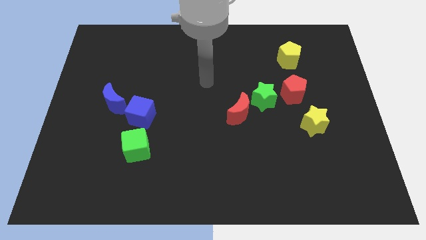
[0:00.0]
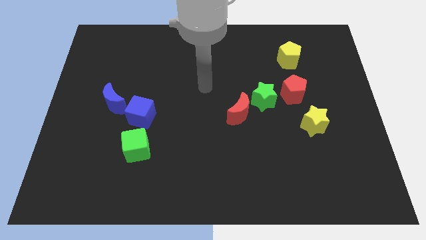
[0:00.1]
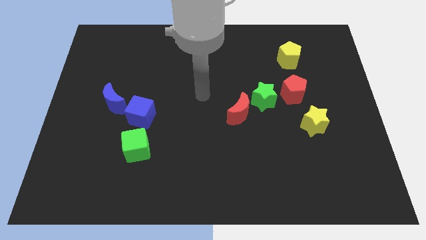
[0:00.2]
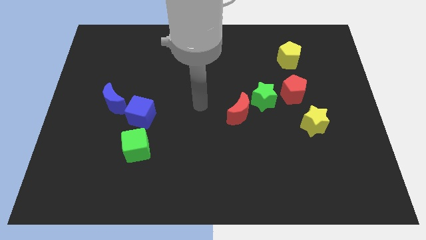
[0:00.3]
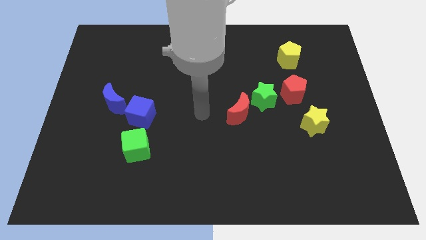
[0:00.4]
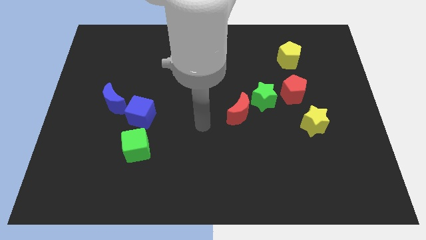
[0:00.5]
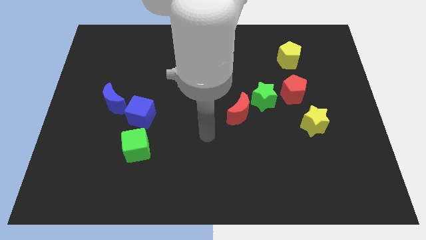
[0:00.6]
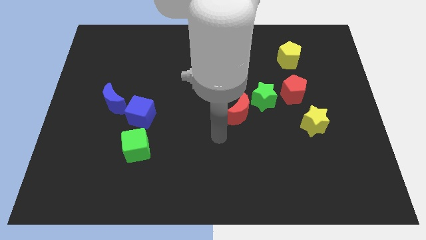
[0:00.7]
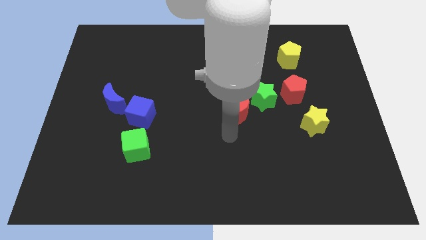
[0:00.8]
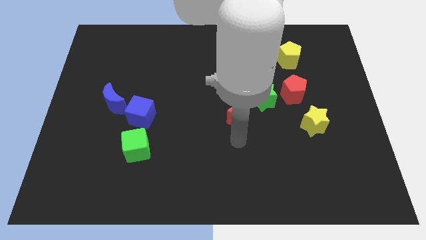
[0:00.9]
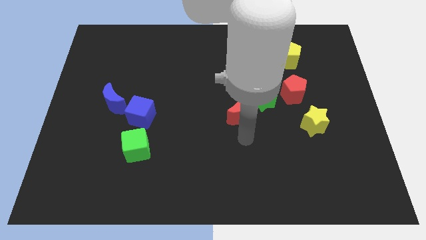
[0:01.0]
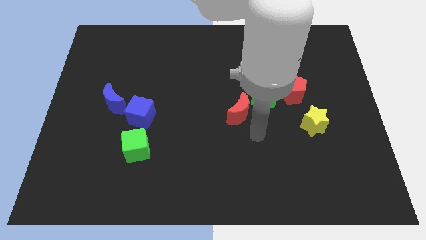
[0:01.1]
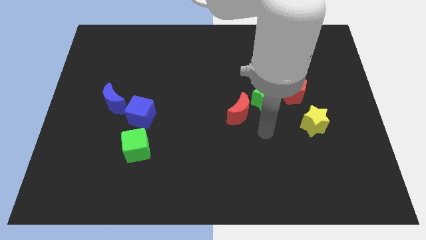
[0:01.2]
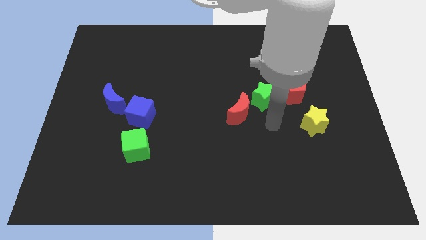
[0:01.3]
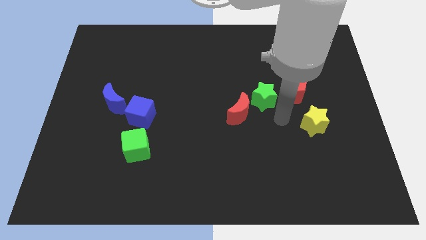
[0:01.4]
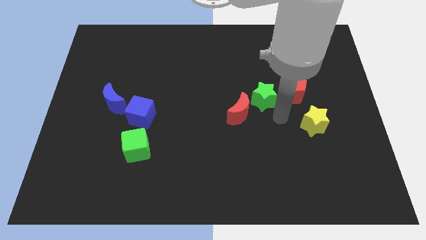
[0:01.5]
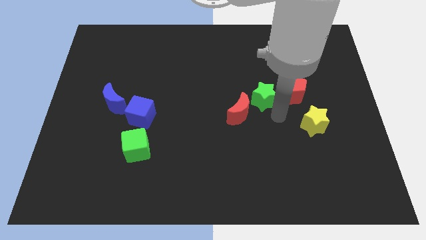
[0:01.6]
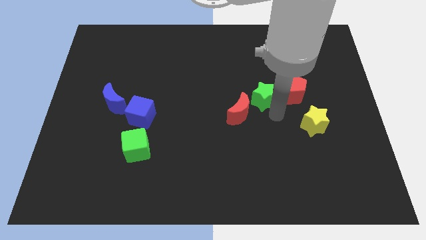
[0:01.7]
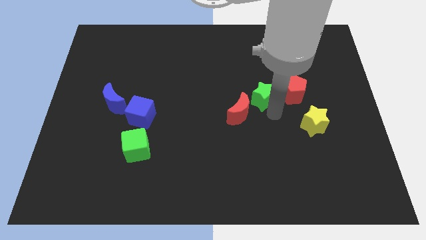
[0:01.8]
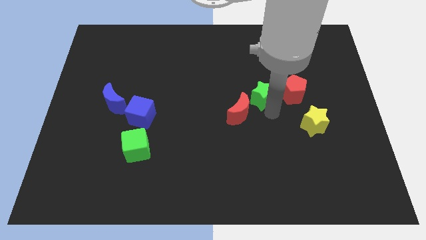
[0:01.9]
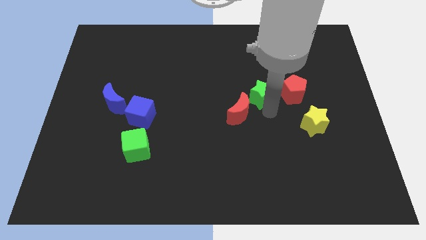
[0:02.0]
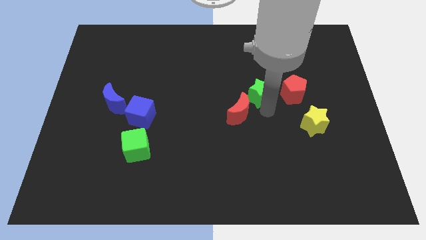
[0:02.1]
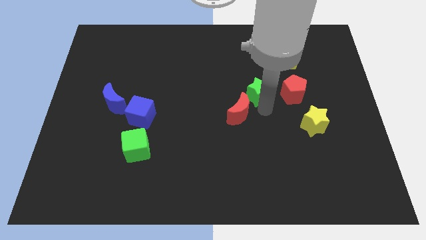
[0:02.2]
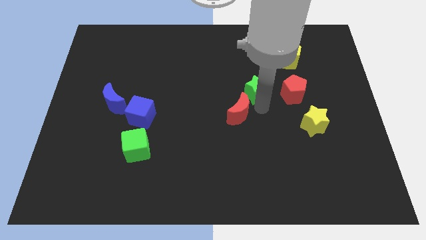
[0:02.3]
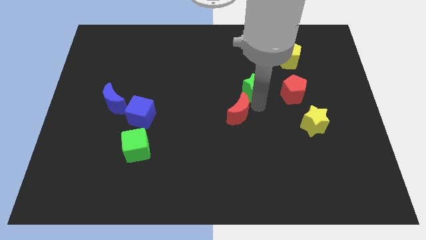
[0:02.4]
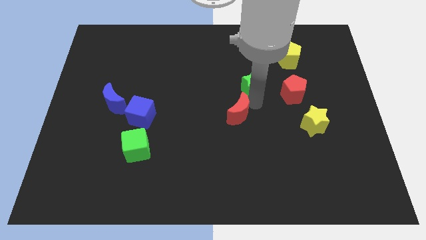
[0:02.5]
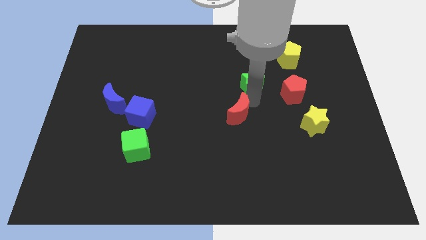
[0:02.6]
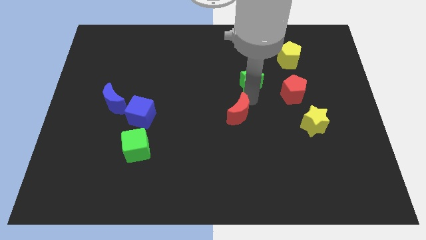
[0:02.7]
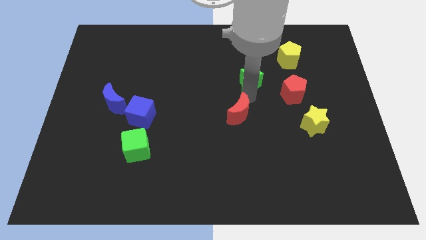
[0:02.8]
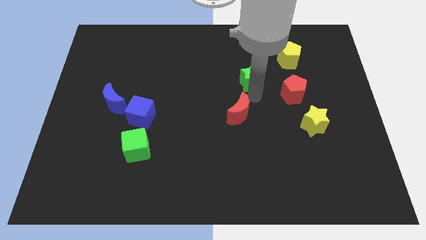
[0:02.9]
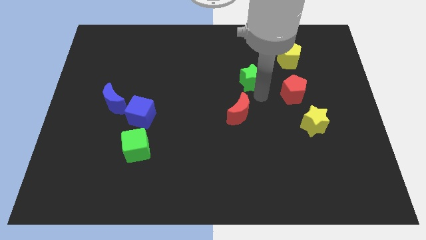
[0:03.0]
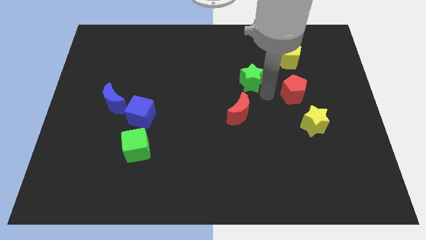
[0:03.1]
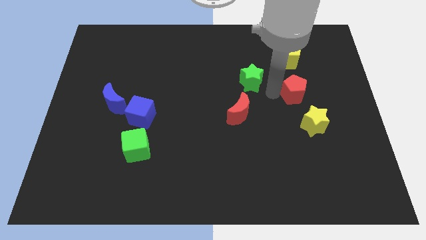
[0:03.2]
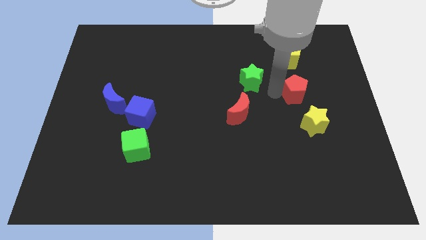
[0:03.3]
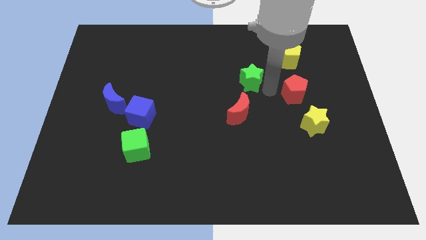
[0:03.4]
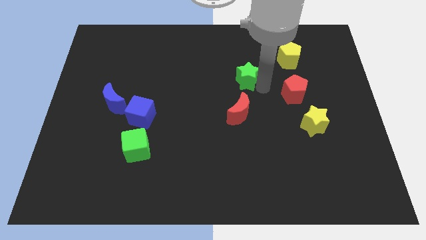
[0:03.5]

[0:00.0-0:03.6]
move the green star a little bit up and then to the left

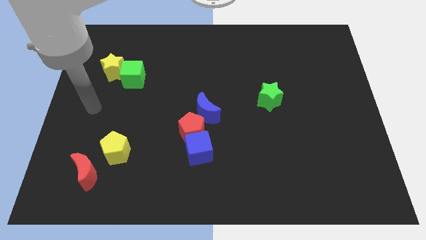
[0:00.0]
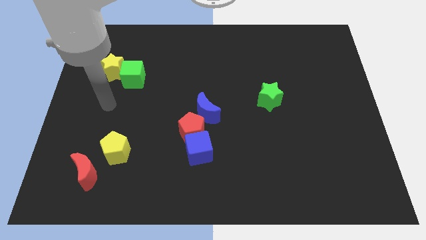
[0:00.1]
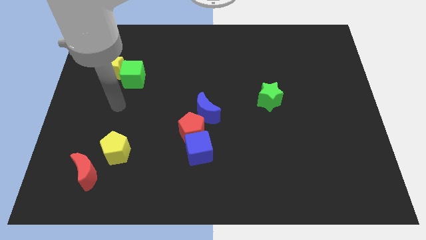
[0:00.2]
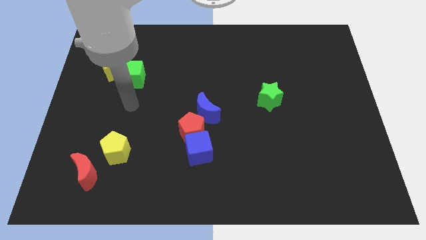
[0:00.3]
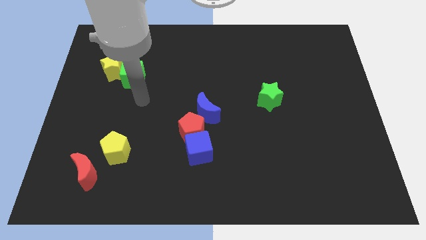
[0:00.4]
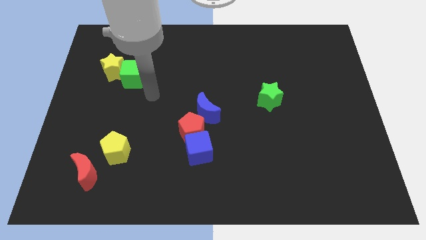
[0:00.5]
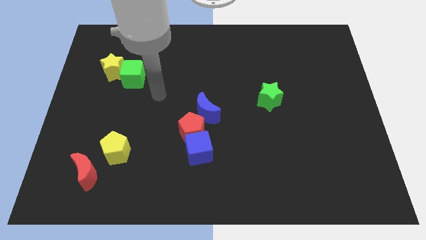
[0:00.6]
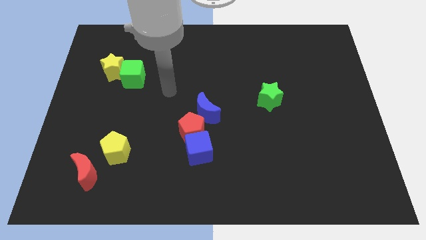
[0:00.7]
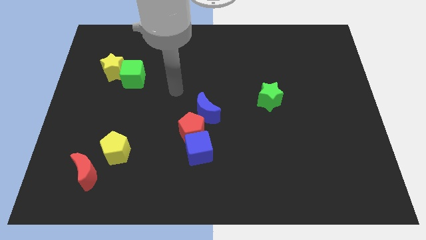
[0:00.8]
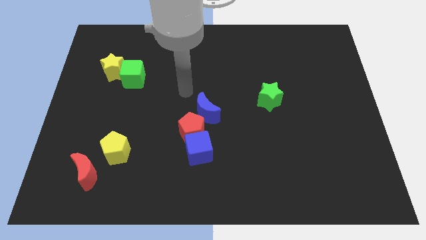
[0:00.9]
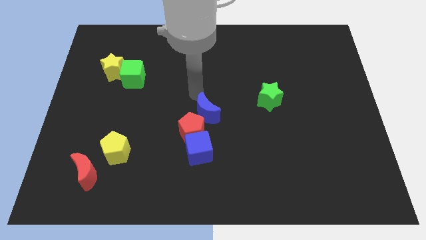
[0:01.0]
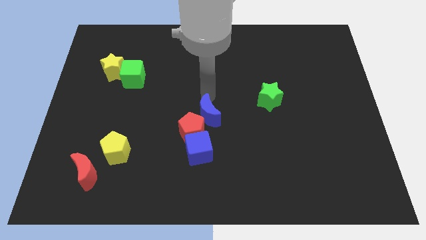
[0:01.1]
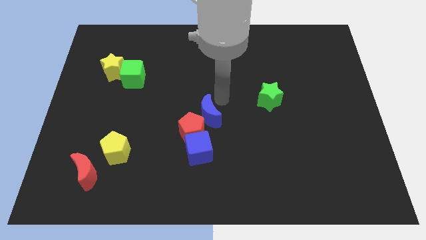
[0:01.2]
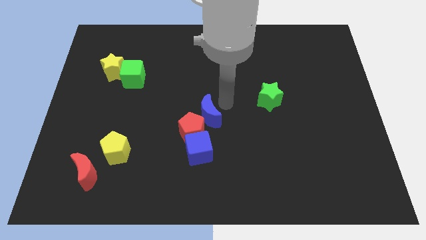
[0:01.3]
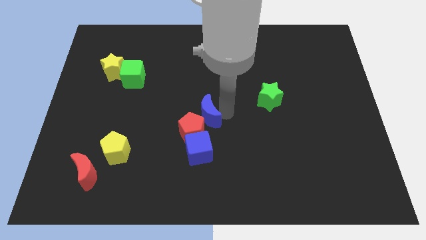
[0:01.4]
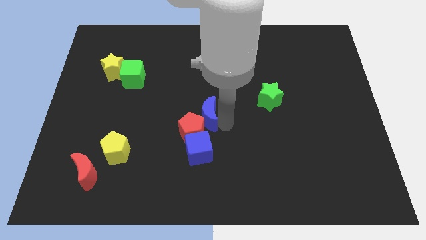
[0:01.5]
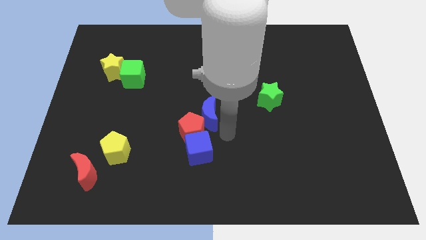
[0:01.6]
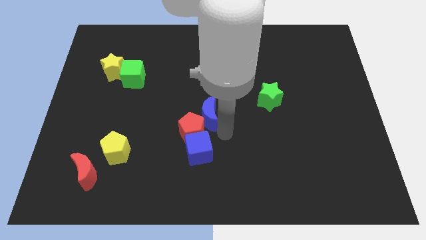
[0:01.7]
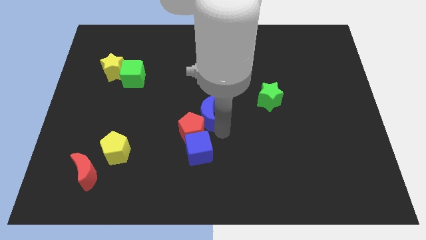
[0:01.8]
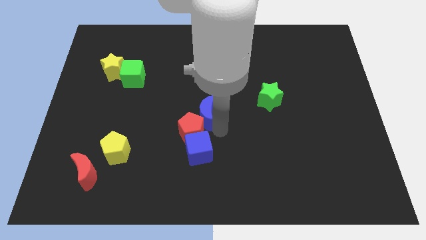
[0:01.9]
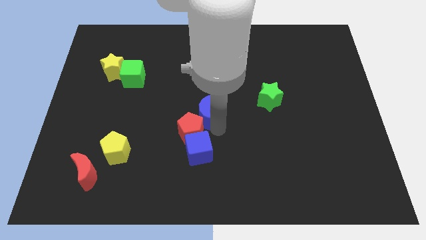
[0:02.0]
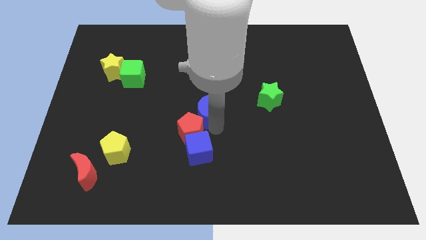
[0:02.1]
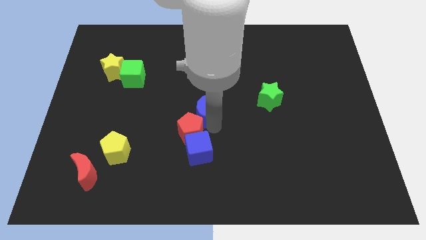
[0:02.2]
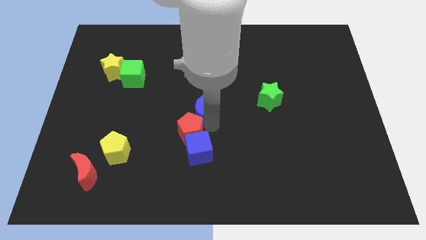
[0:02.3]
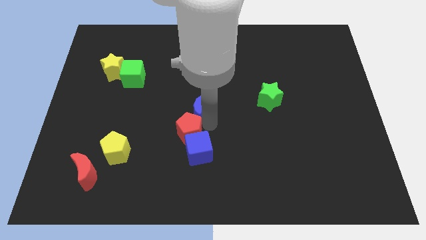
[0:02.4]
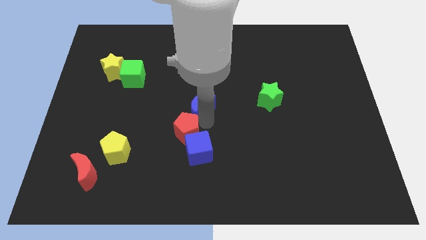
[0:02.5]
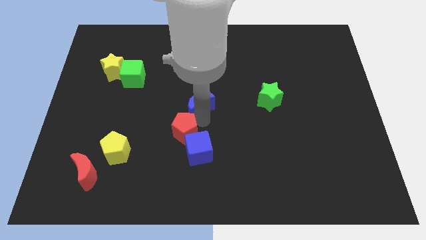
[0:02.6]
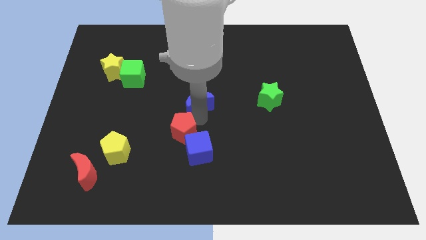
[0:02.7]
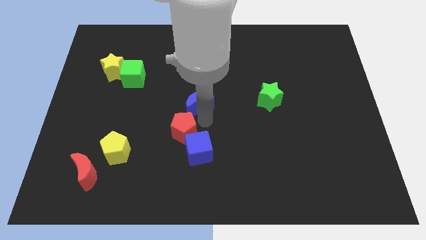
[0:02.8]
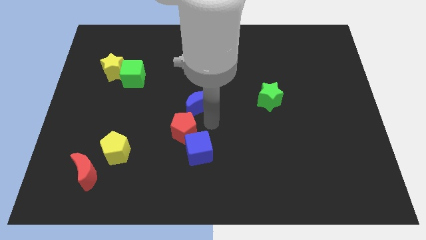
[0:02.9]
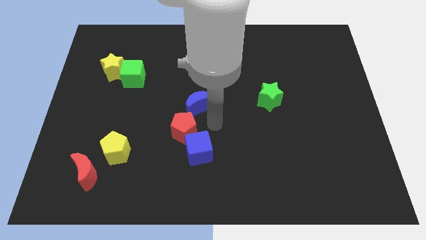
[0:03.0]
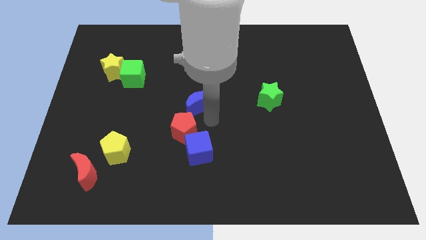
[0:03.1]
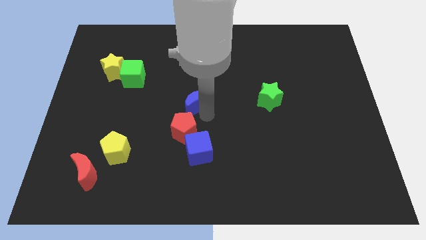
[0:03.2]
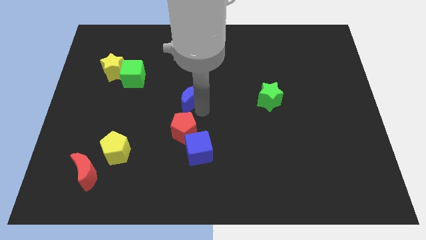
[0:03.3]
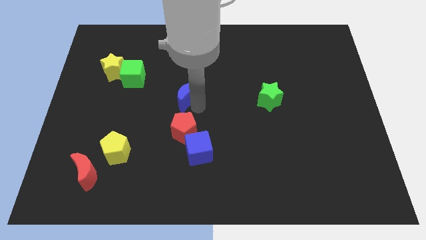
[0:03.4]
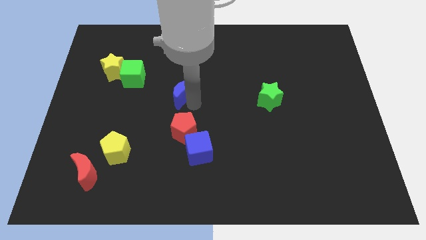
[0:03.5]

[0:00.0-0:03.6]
move the blue moon a little bit upwards and then to the left

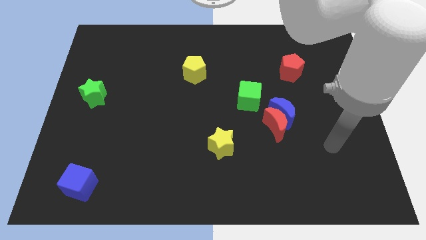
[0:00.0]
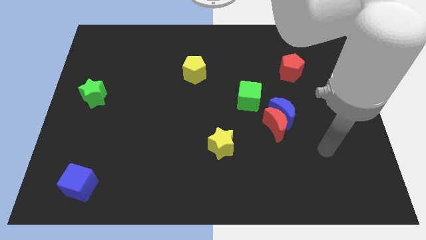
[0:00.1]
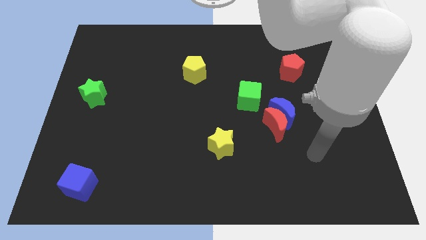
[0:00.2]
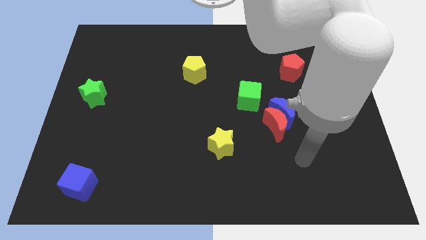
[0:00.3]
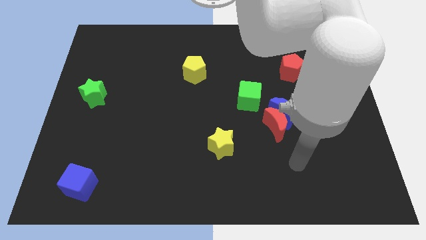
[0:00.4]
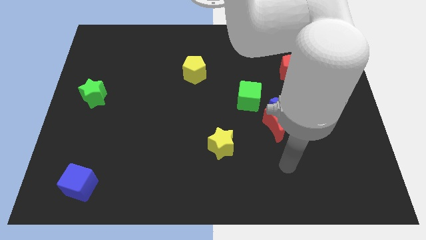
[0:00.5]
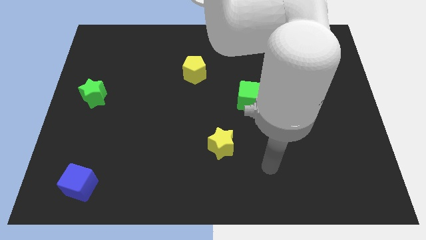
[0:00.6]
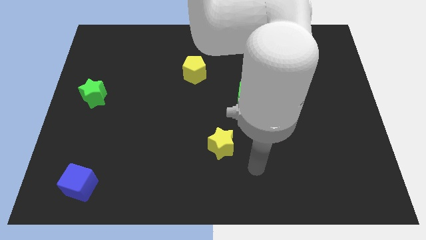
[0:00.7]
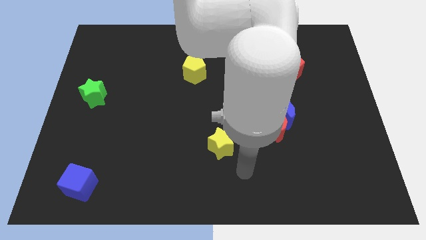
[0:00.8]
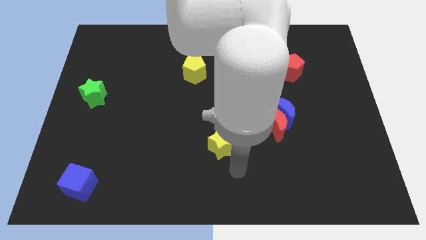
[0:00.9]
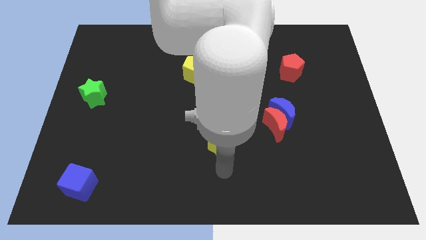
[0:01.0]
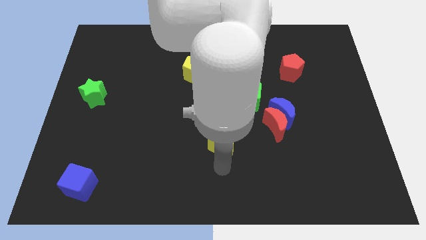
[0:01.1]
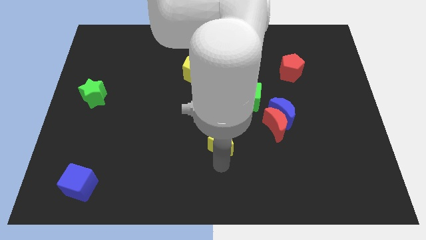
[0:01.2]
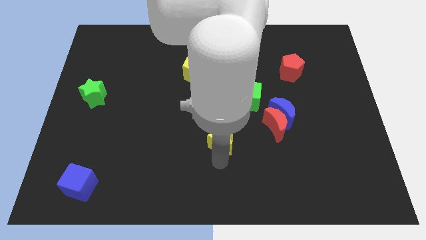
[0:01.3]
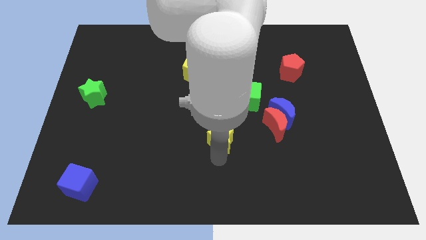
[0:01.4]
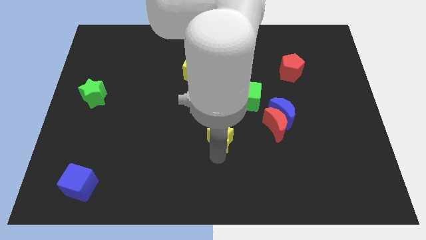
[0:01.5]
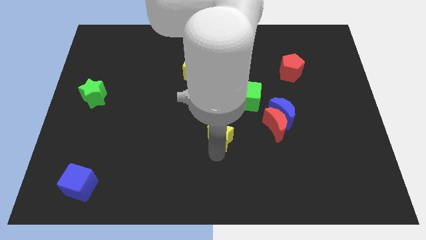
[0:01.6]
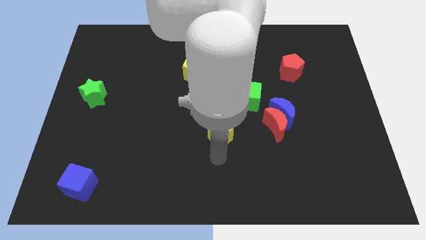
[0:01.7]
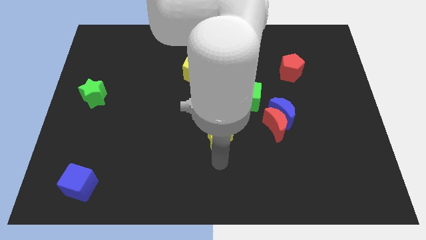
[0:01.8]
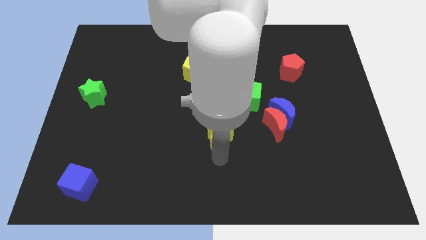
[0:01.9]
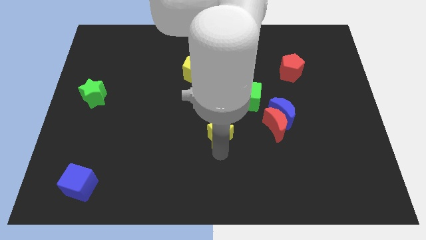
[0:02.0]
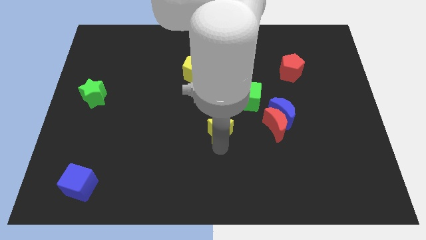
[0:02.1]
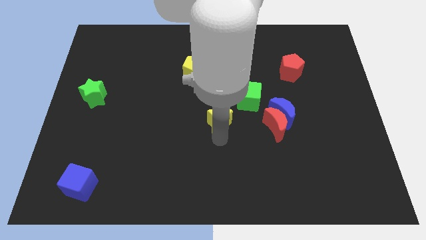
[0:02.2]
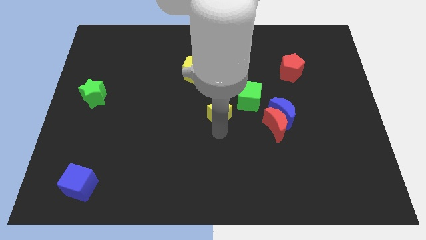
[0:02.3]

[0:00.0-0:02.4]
move the yellow star upwards a little bit
